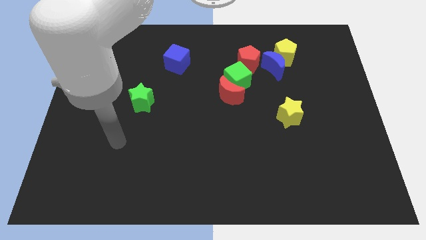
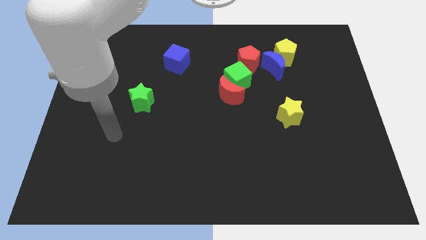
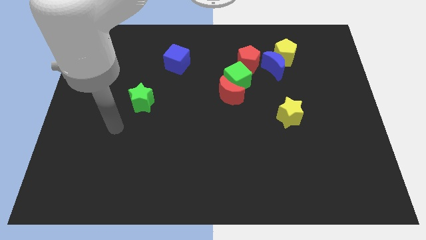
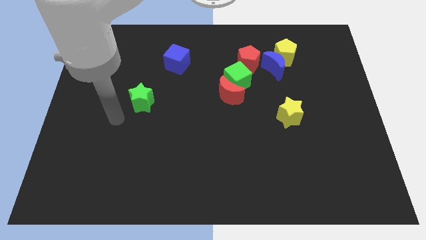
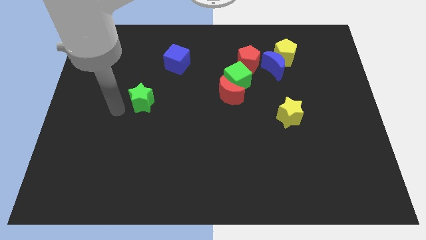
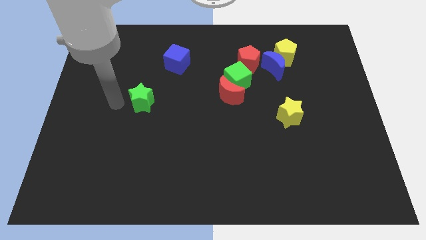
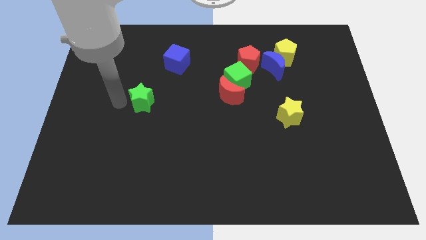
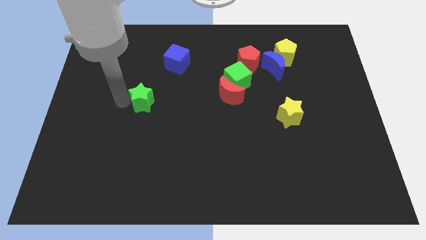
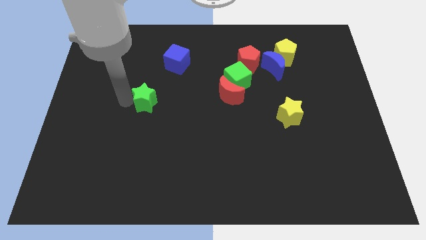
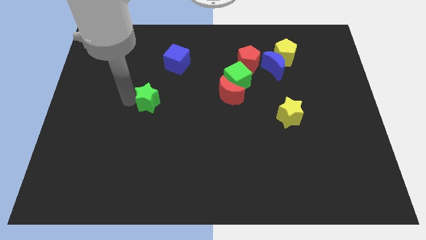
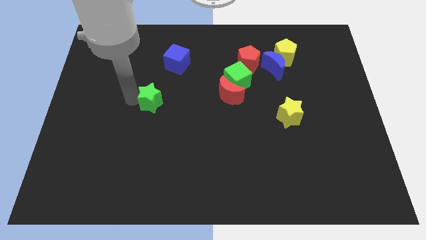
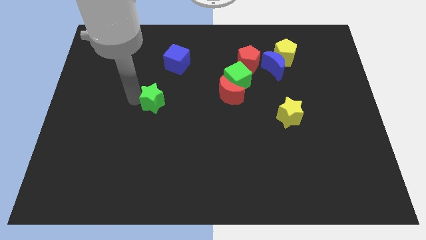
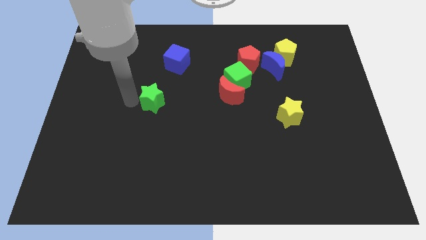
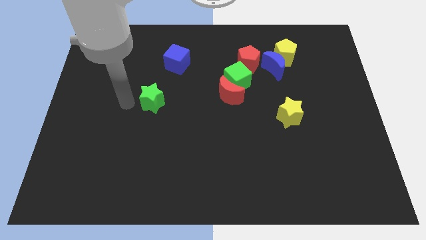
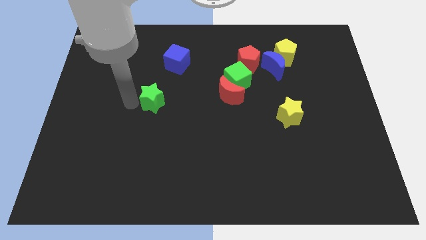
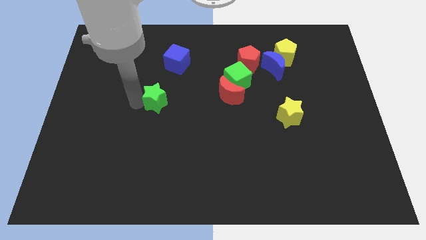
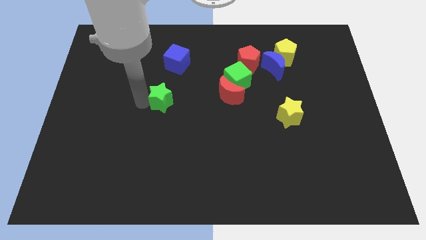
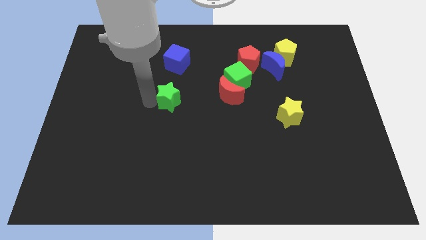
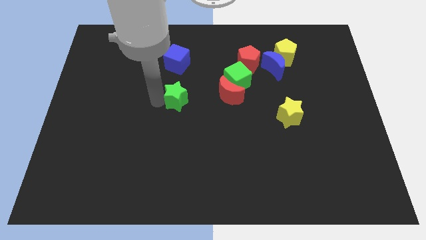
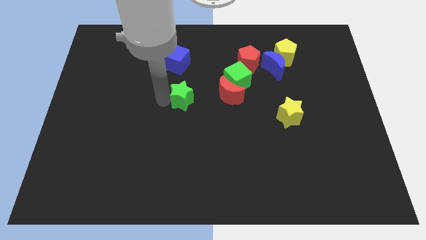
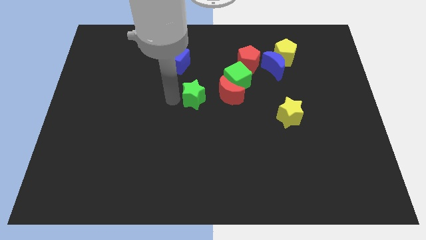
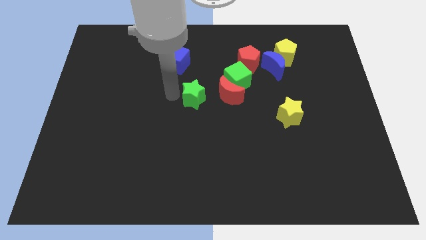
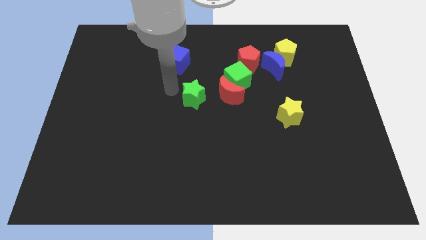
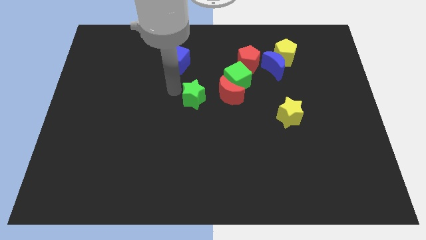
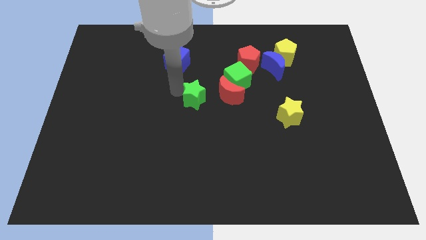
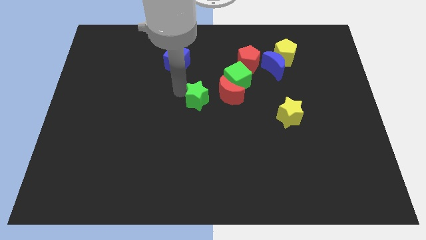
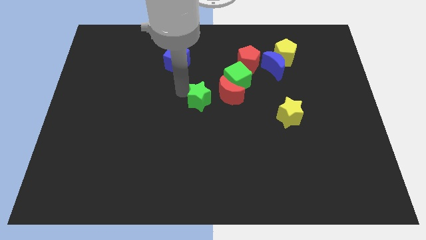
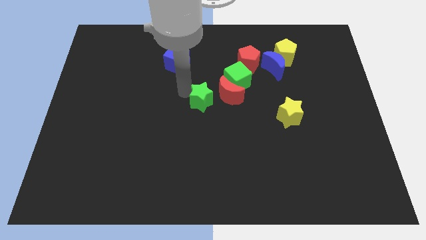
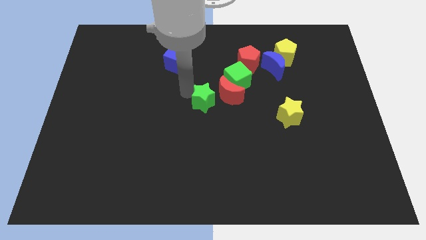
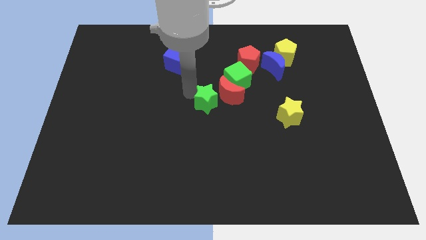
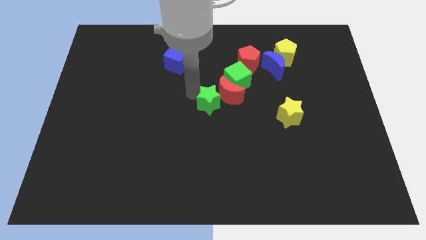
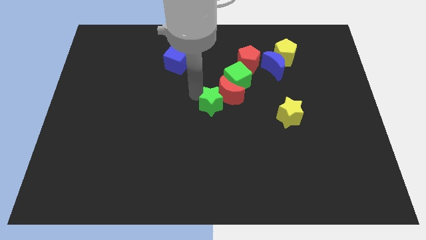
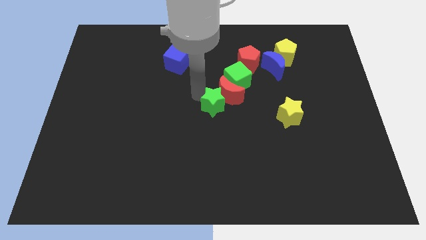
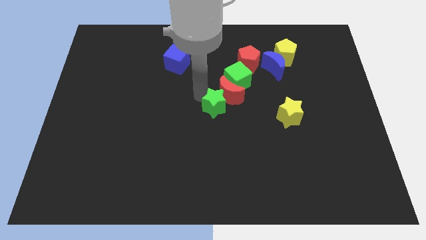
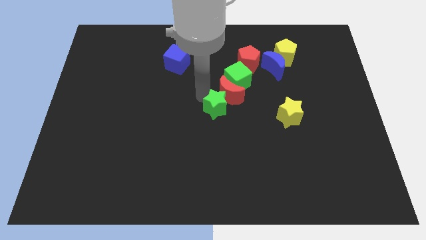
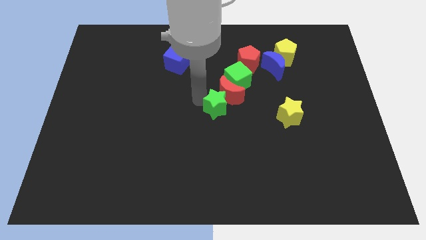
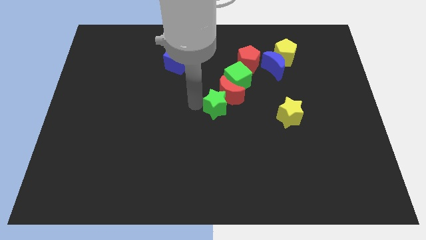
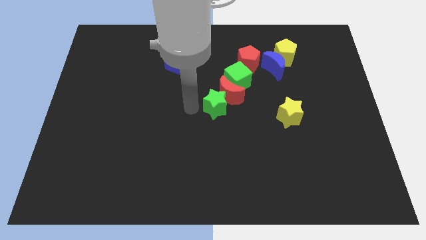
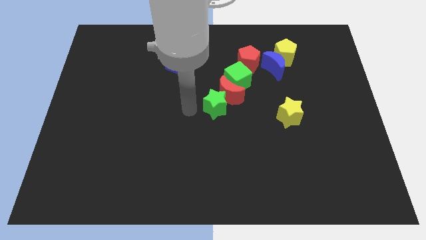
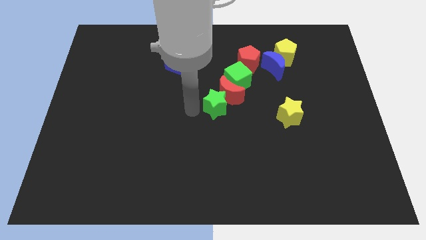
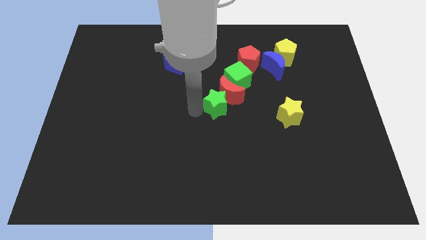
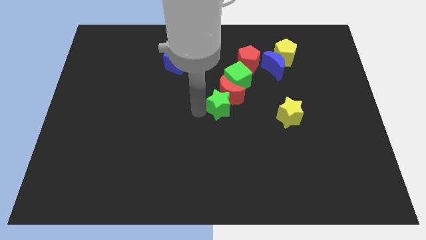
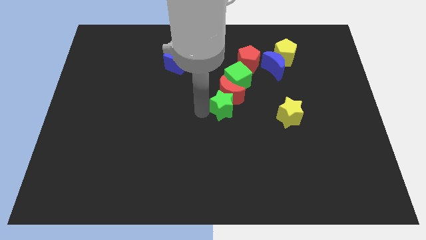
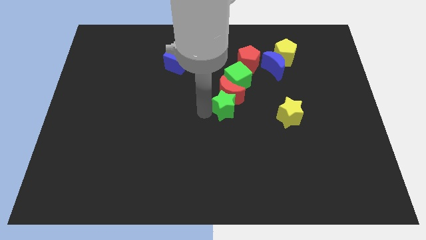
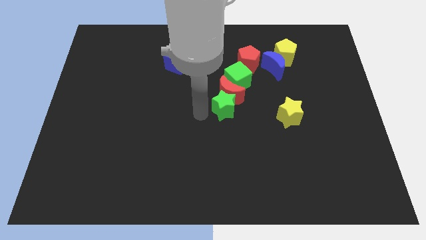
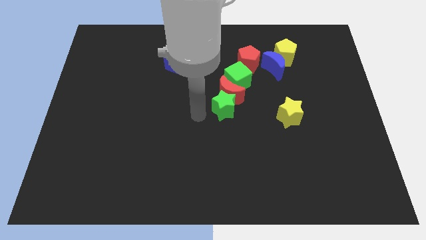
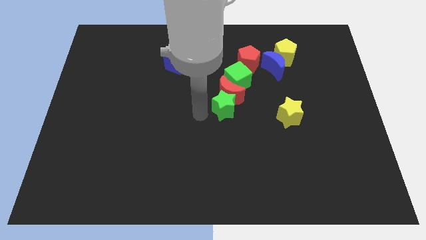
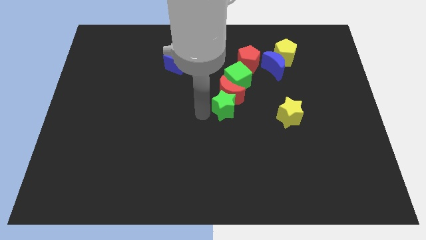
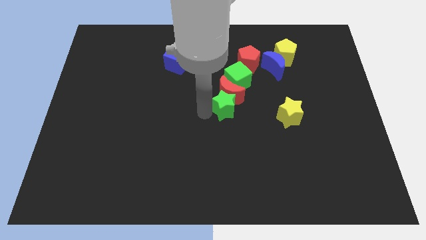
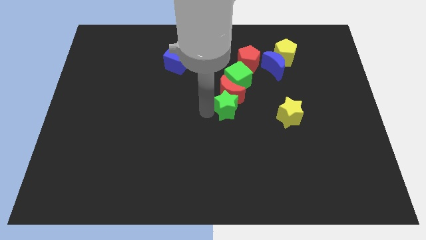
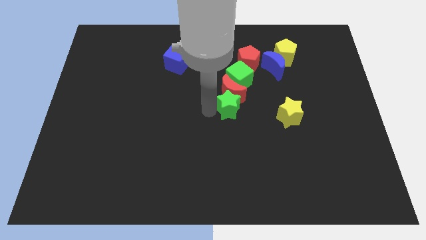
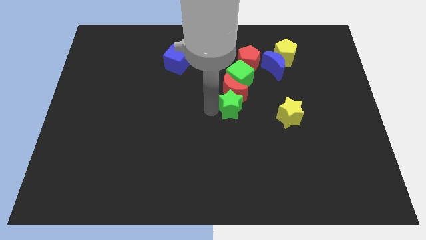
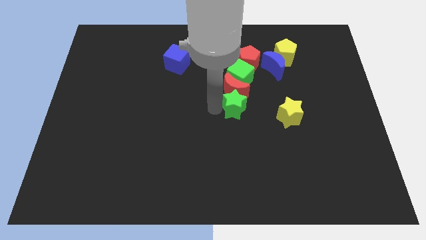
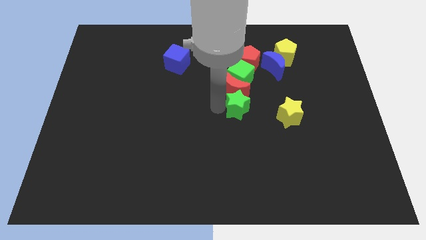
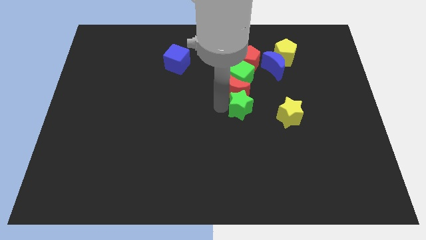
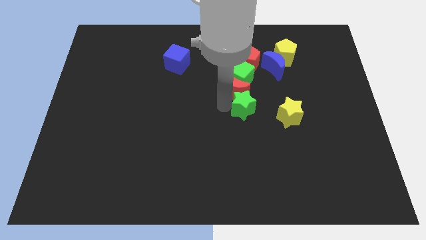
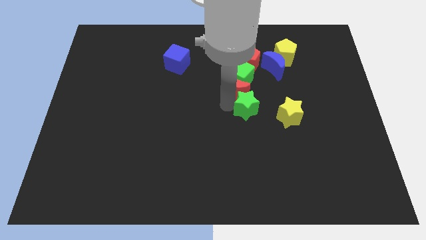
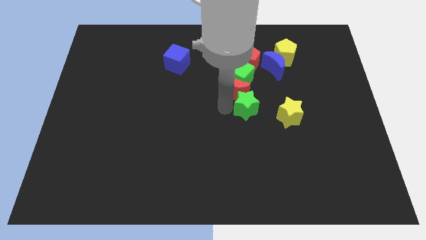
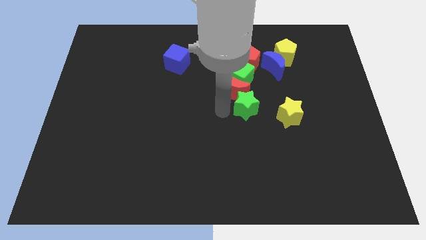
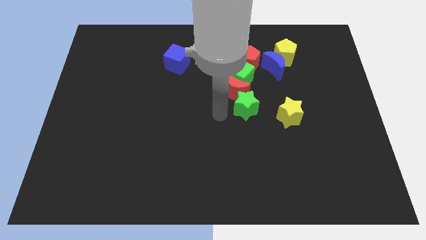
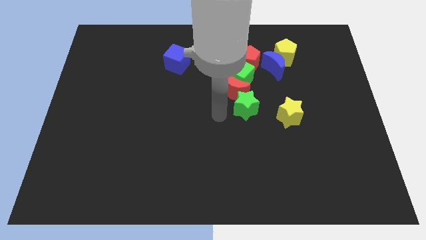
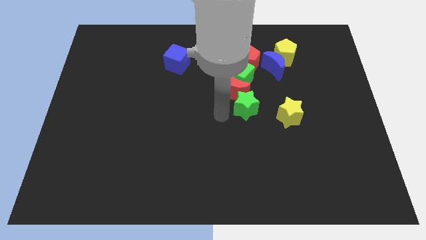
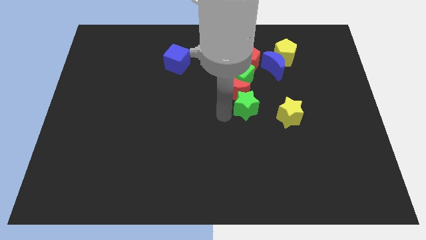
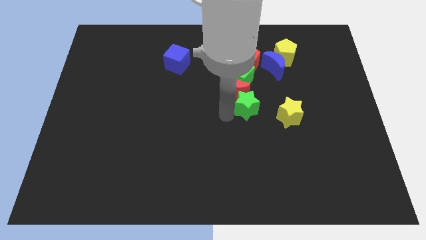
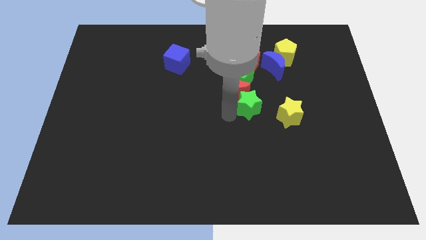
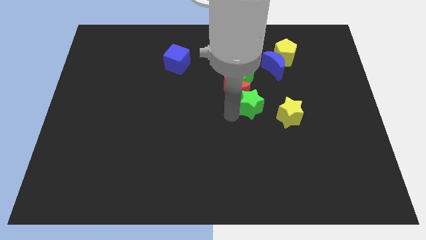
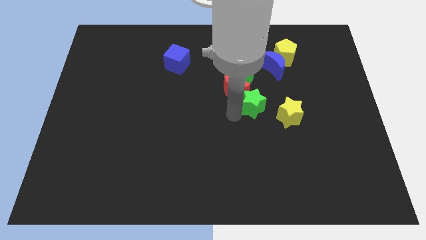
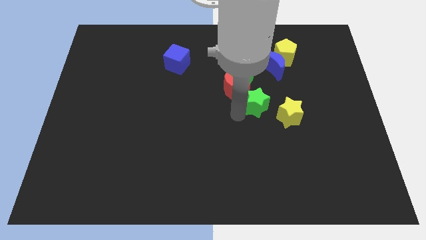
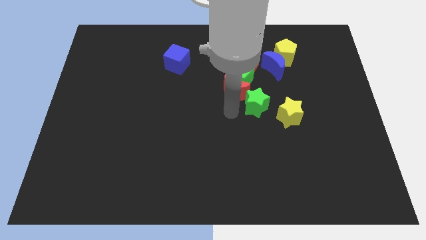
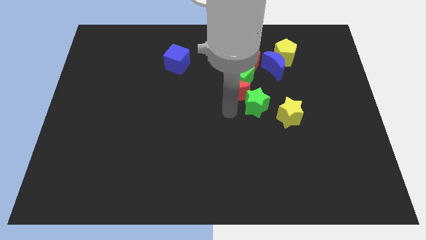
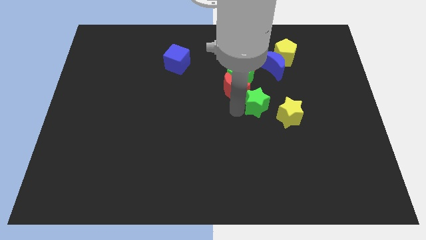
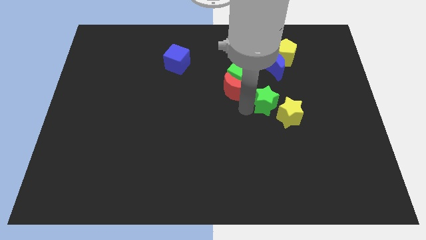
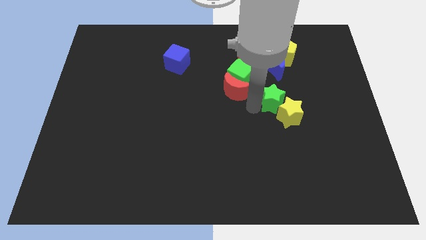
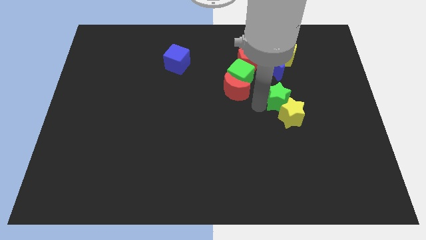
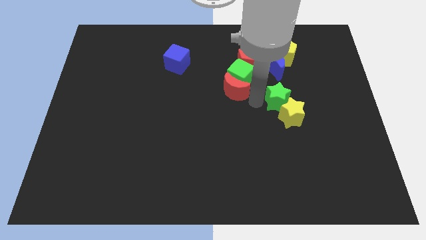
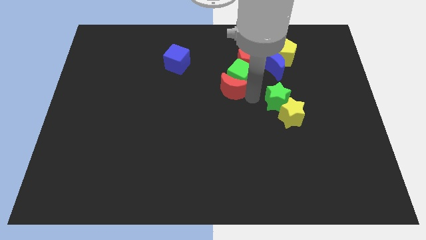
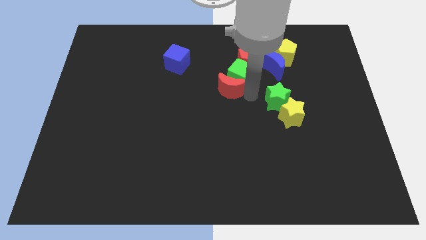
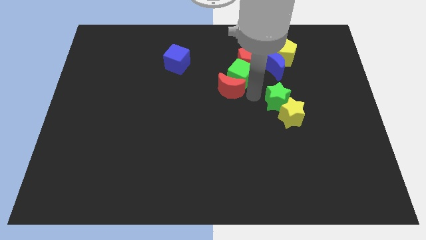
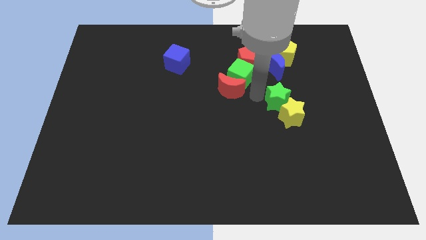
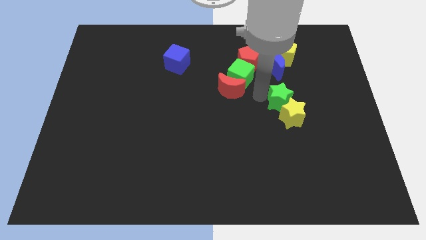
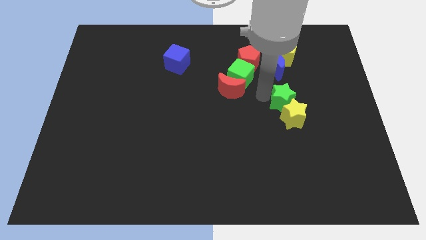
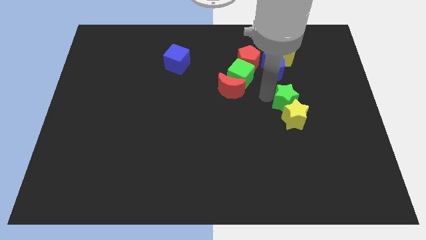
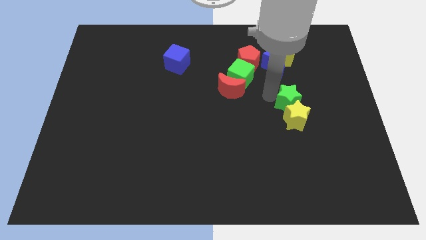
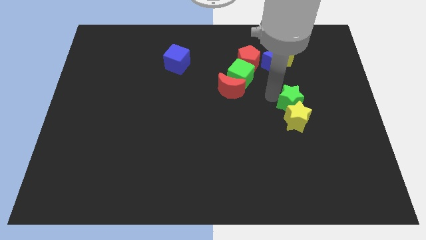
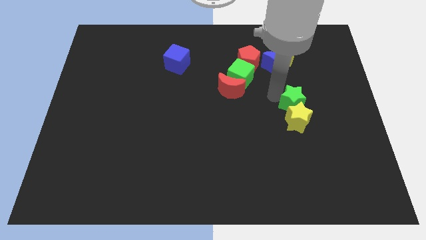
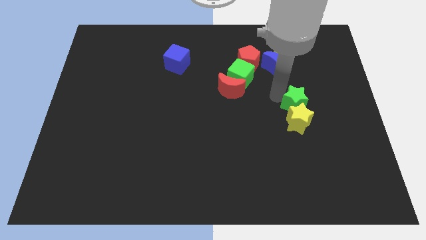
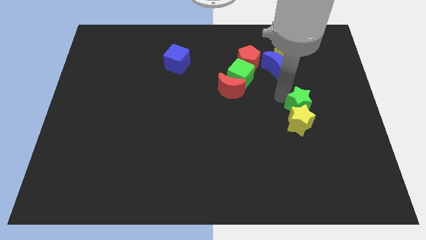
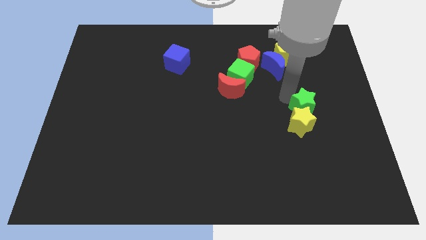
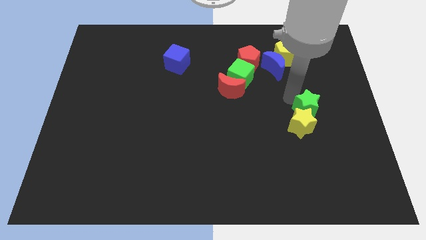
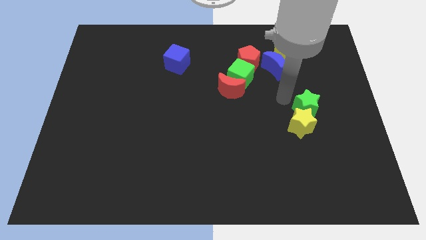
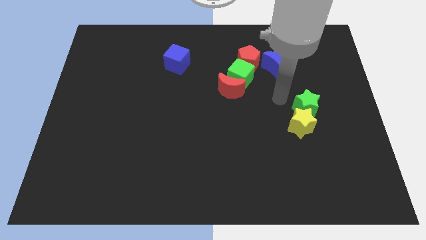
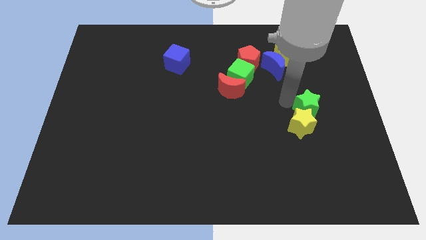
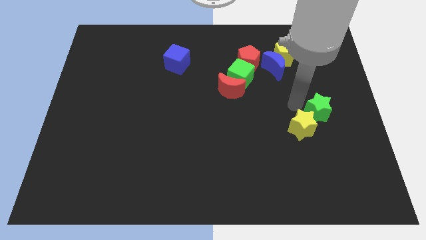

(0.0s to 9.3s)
push the green star right of the yellow star
